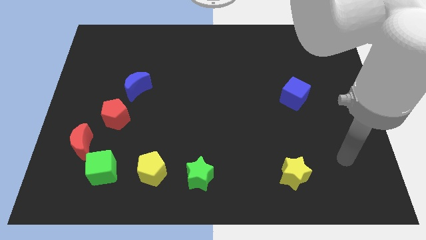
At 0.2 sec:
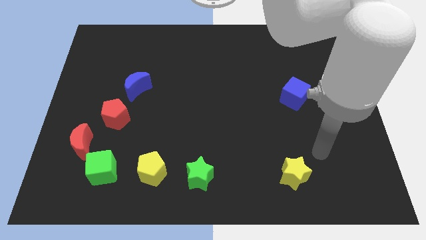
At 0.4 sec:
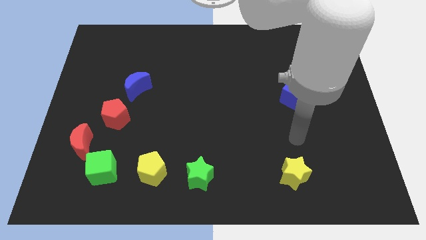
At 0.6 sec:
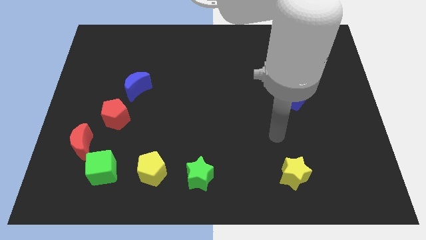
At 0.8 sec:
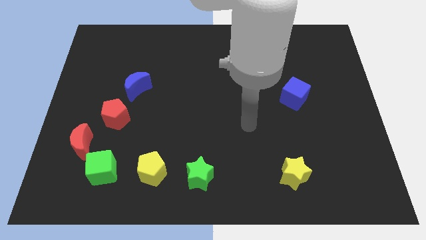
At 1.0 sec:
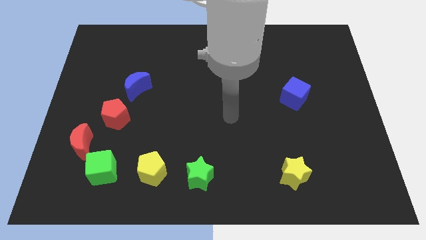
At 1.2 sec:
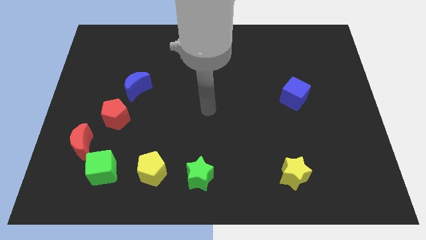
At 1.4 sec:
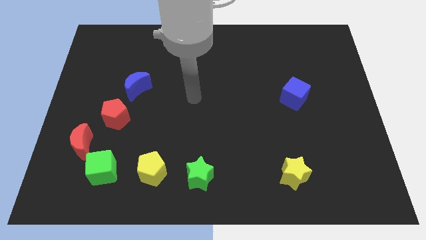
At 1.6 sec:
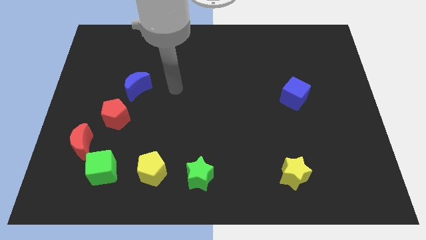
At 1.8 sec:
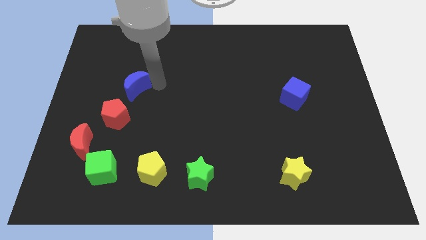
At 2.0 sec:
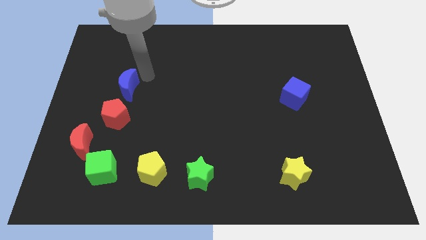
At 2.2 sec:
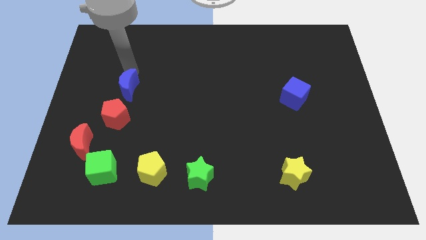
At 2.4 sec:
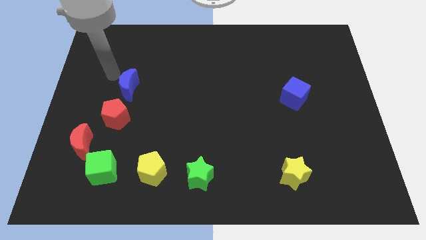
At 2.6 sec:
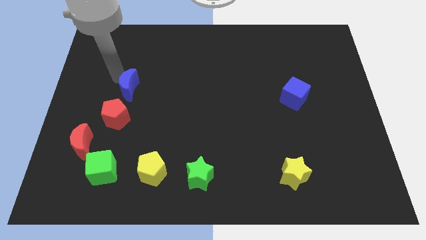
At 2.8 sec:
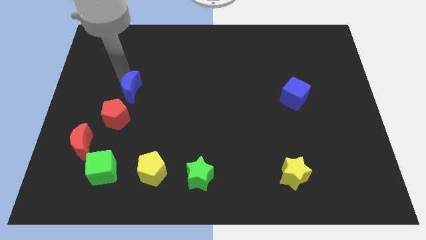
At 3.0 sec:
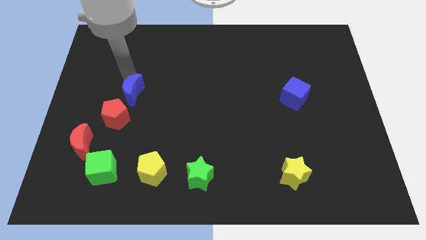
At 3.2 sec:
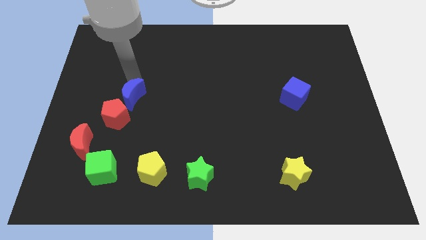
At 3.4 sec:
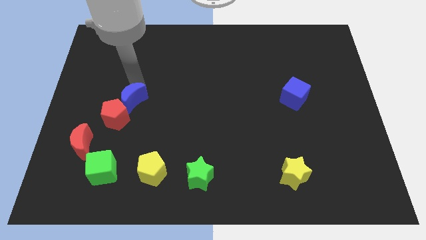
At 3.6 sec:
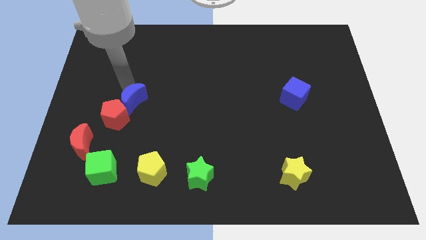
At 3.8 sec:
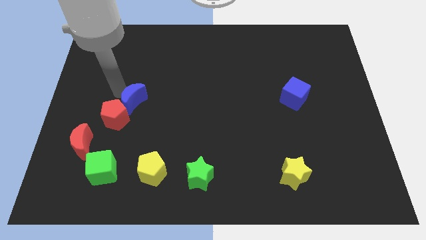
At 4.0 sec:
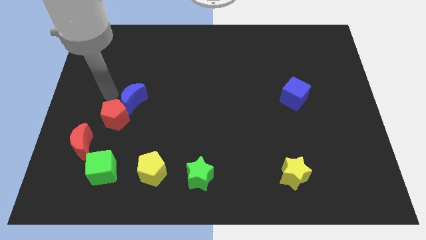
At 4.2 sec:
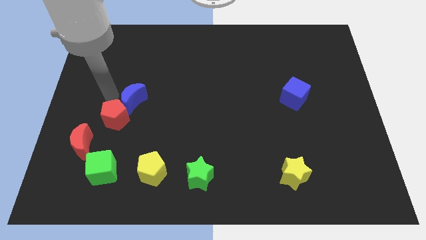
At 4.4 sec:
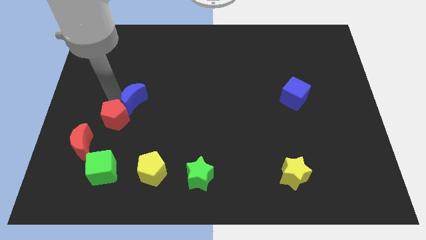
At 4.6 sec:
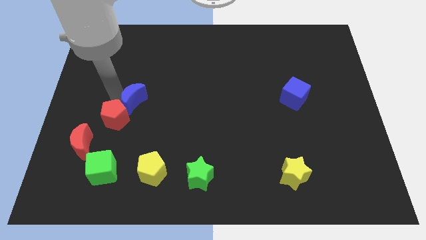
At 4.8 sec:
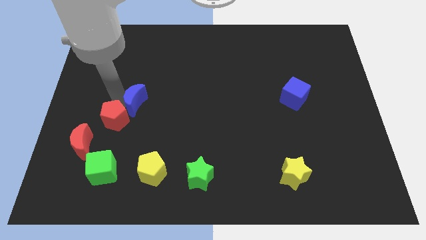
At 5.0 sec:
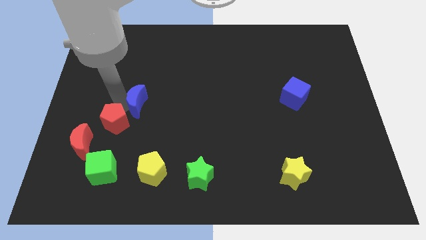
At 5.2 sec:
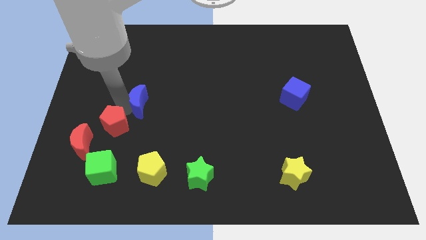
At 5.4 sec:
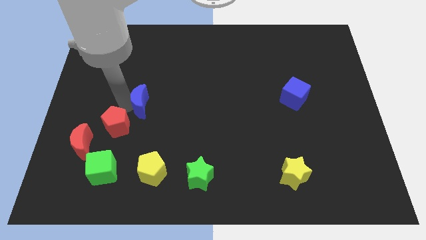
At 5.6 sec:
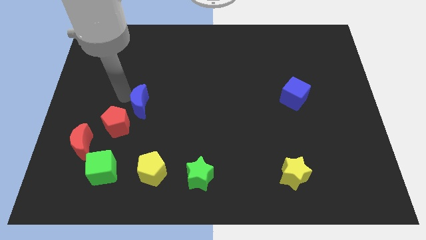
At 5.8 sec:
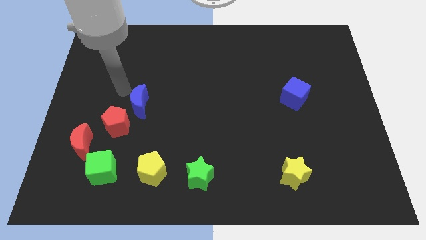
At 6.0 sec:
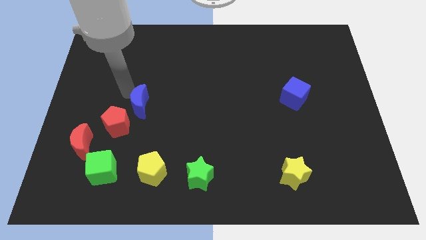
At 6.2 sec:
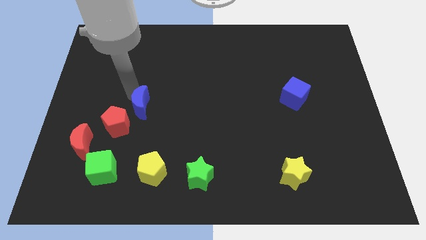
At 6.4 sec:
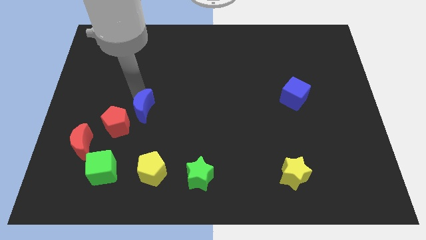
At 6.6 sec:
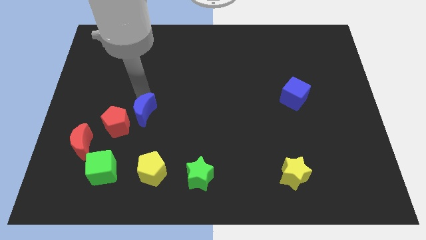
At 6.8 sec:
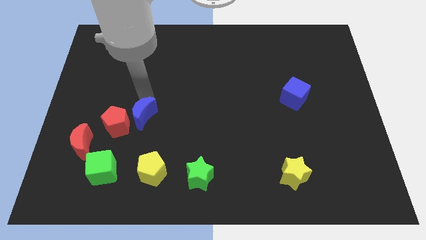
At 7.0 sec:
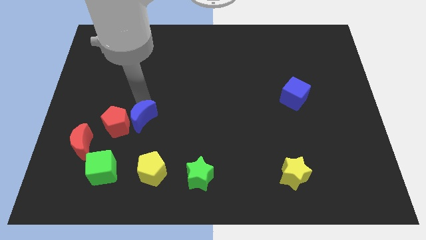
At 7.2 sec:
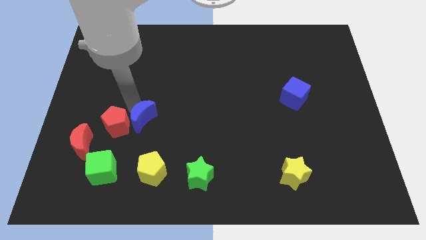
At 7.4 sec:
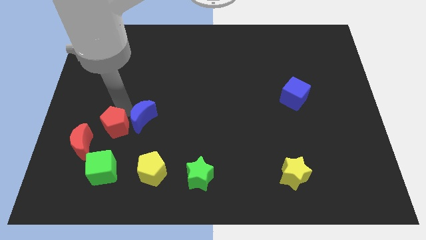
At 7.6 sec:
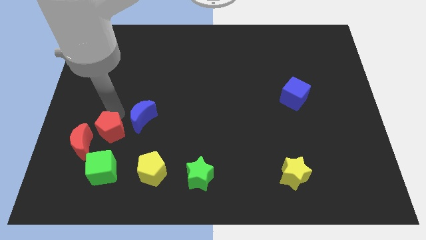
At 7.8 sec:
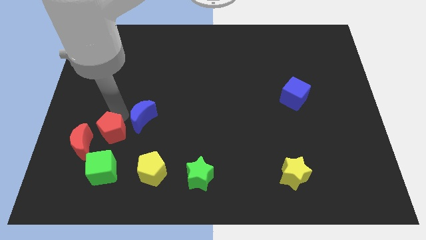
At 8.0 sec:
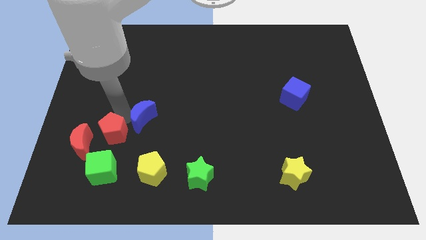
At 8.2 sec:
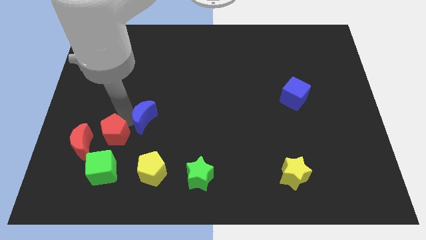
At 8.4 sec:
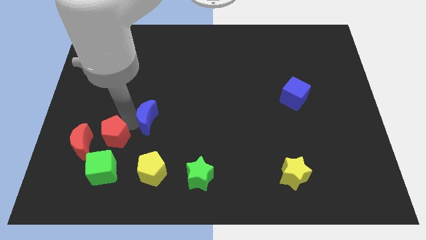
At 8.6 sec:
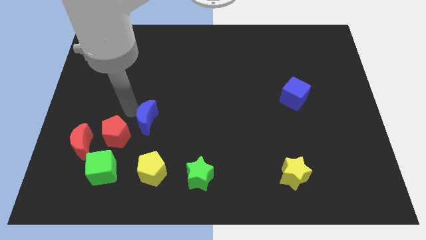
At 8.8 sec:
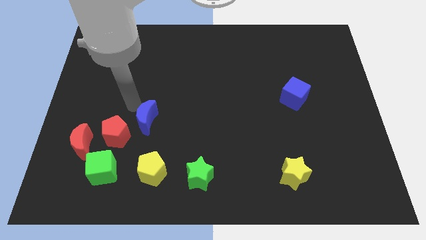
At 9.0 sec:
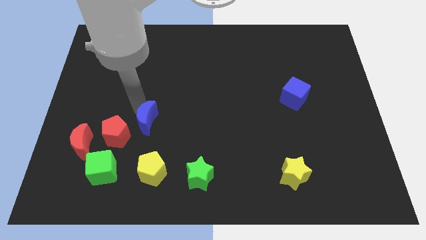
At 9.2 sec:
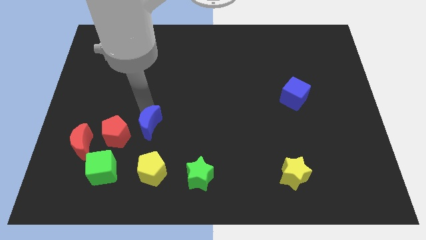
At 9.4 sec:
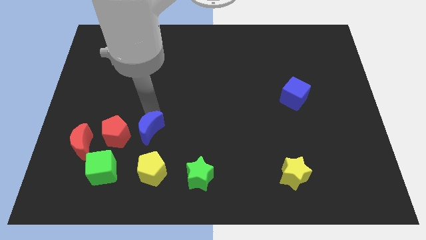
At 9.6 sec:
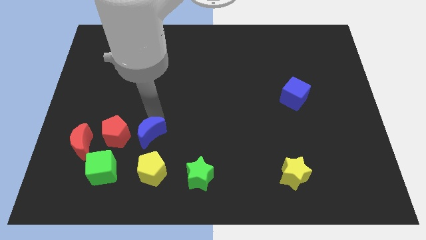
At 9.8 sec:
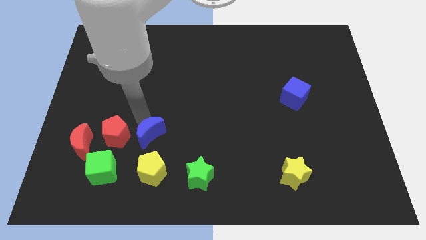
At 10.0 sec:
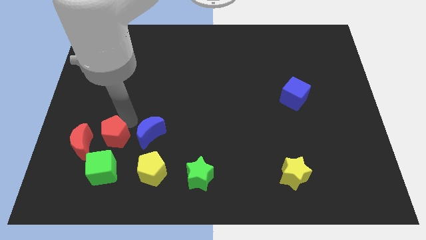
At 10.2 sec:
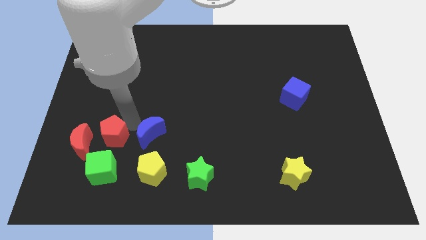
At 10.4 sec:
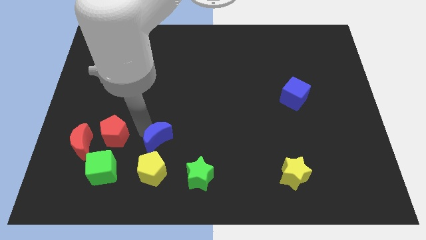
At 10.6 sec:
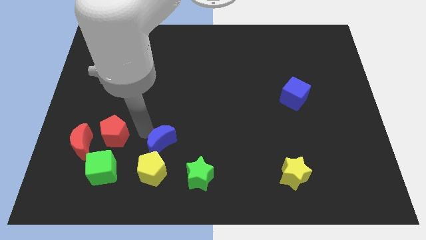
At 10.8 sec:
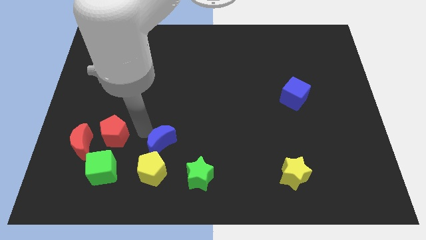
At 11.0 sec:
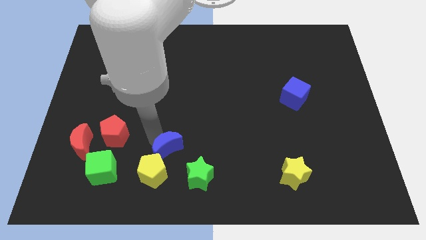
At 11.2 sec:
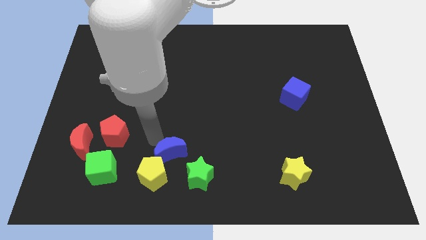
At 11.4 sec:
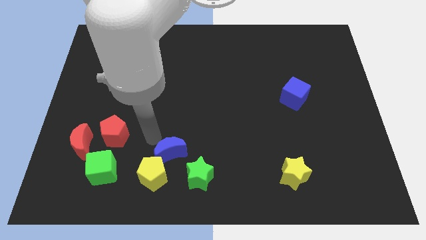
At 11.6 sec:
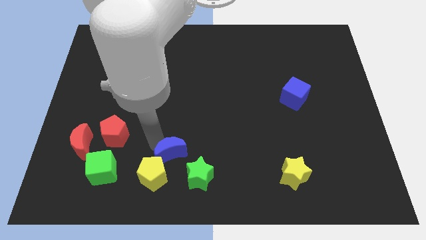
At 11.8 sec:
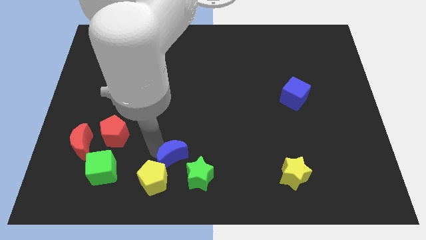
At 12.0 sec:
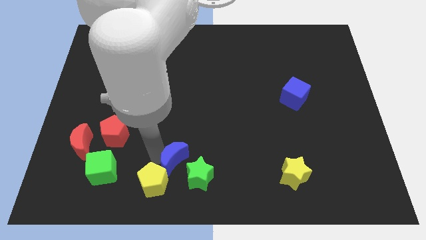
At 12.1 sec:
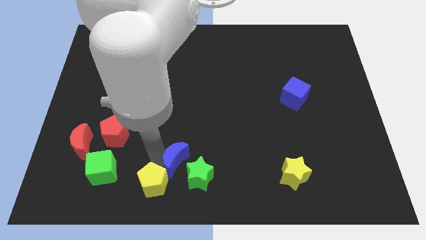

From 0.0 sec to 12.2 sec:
slide the blue moon towards the green star
